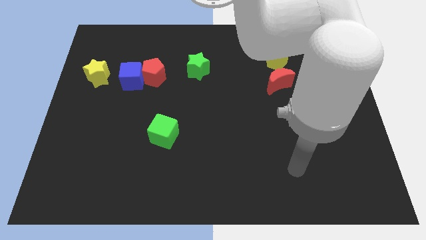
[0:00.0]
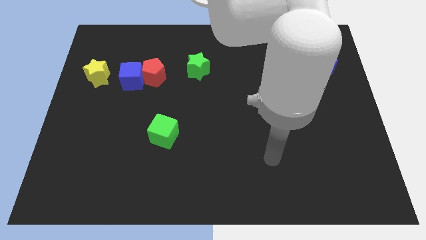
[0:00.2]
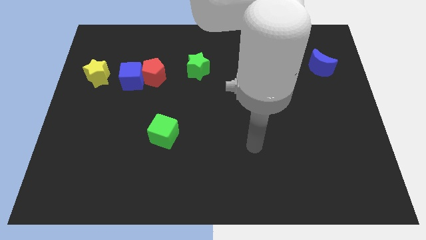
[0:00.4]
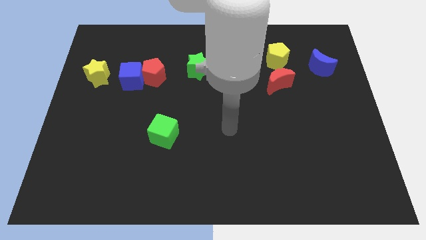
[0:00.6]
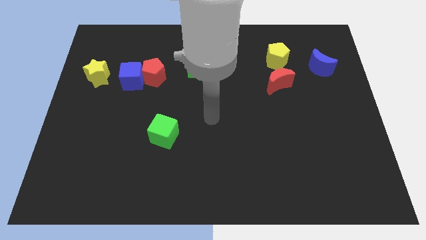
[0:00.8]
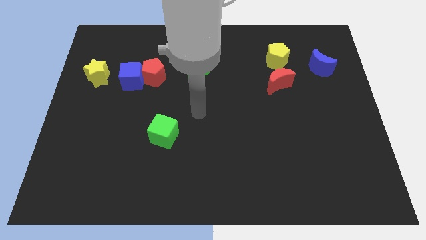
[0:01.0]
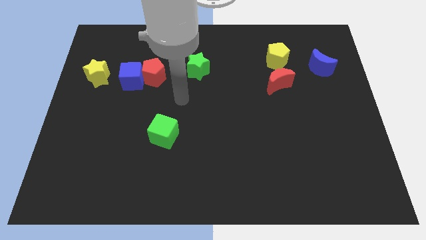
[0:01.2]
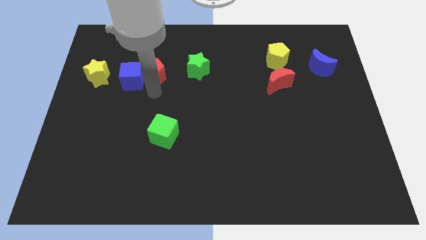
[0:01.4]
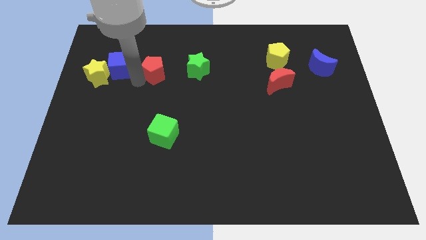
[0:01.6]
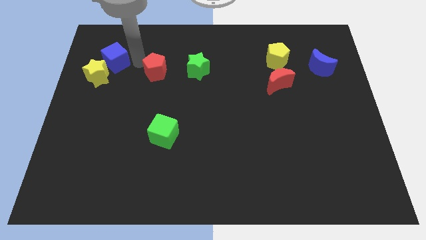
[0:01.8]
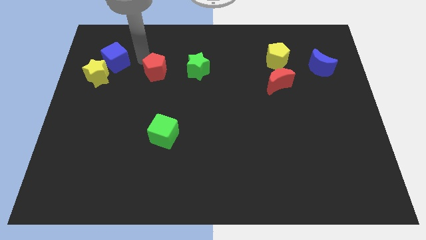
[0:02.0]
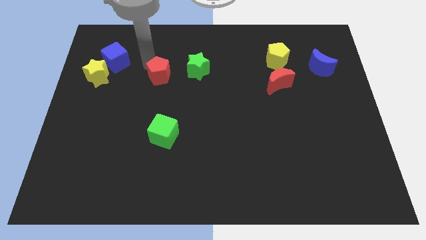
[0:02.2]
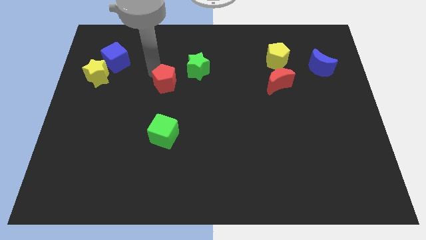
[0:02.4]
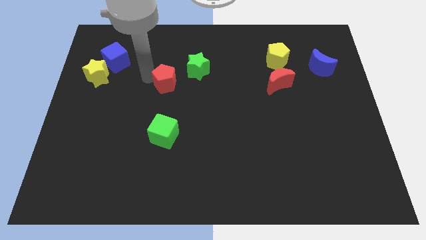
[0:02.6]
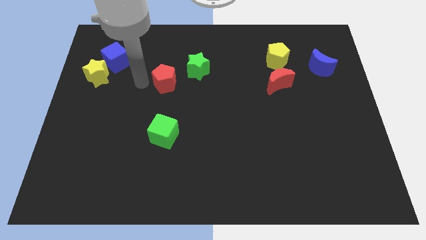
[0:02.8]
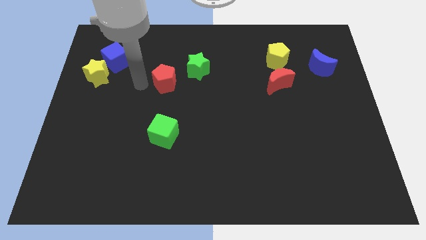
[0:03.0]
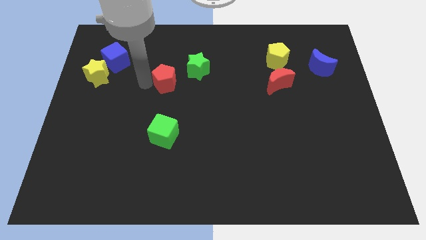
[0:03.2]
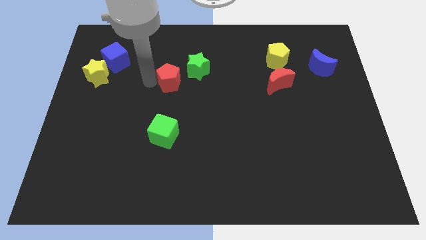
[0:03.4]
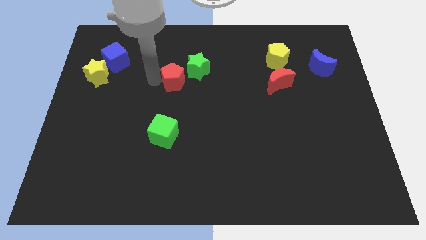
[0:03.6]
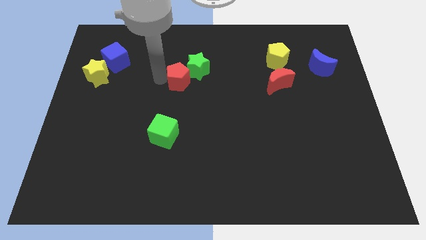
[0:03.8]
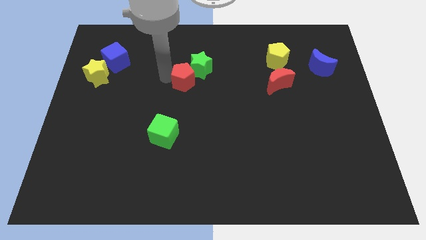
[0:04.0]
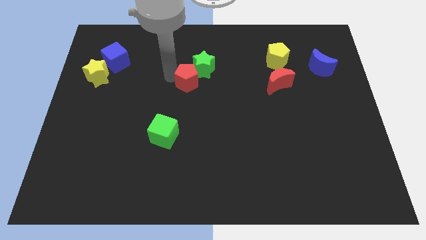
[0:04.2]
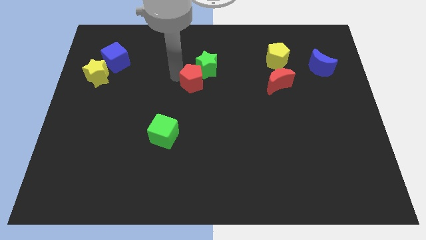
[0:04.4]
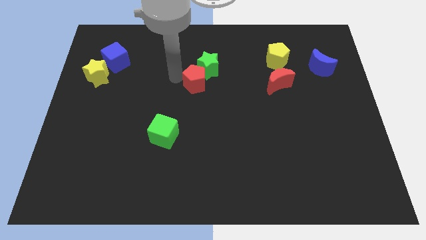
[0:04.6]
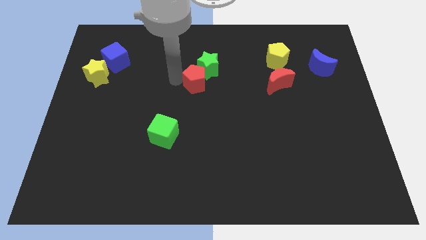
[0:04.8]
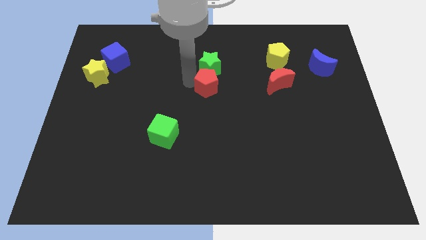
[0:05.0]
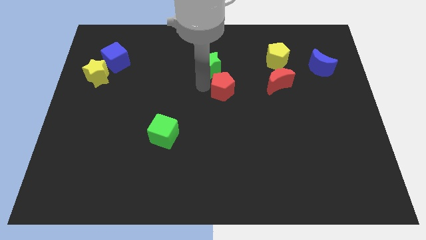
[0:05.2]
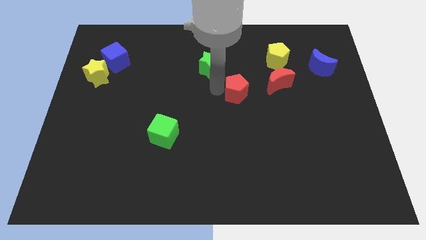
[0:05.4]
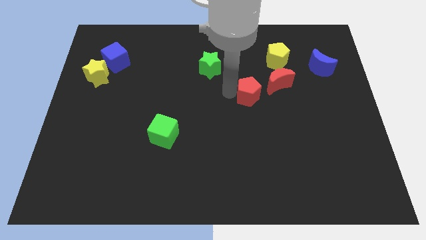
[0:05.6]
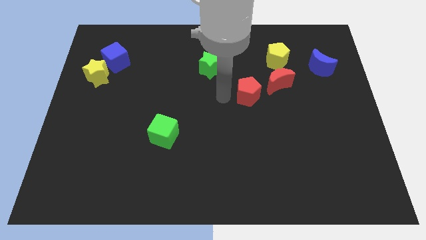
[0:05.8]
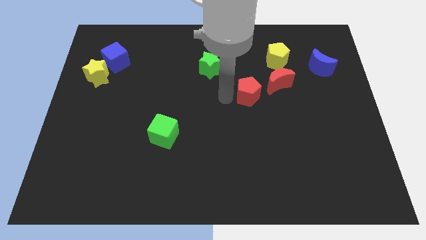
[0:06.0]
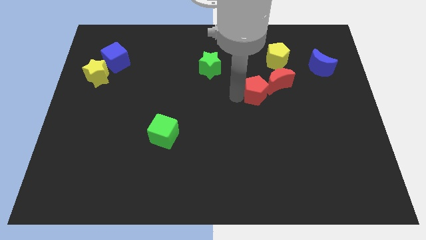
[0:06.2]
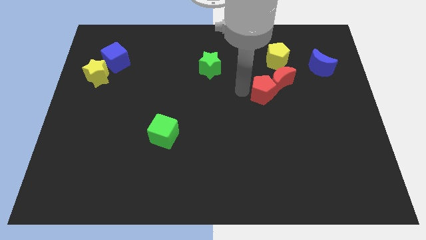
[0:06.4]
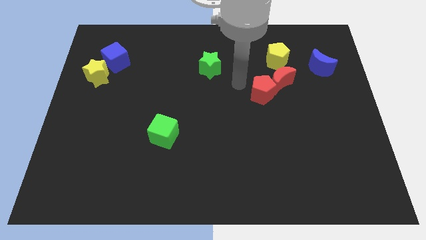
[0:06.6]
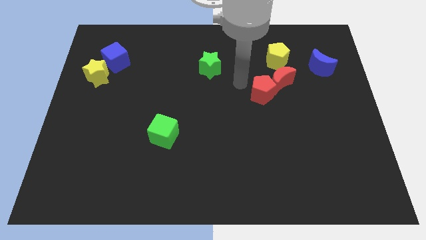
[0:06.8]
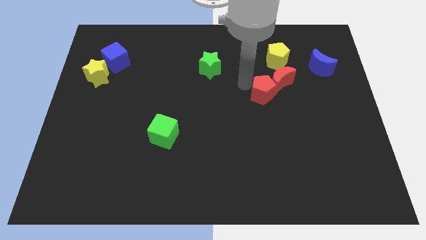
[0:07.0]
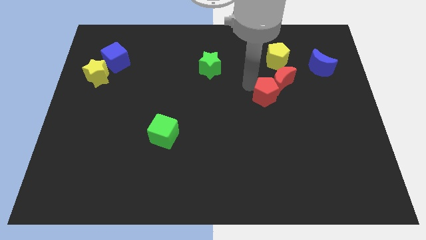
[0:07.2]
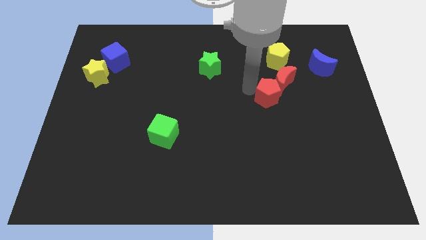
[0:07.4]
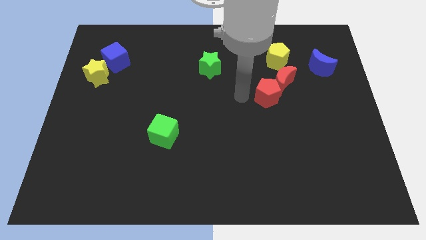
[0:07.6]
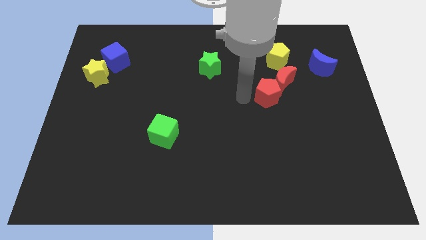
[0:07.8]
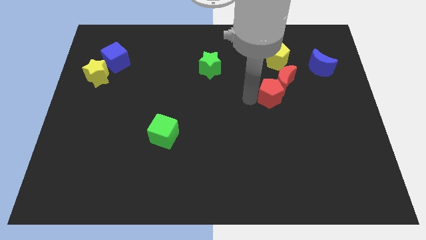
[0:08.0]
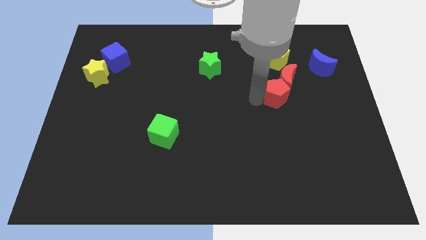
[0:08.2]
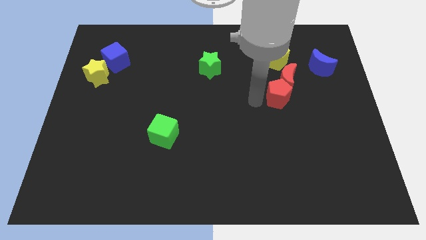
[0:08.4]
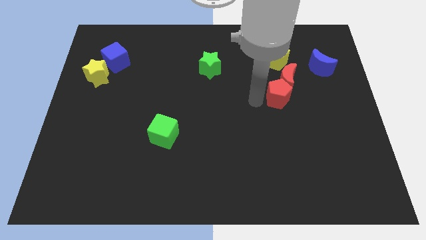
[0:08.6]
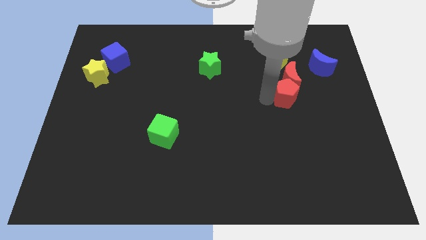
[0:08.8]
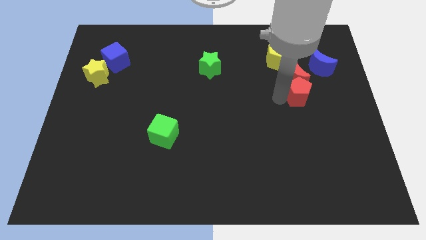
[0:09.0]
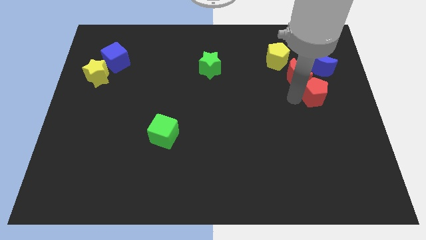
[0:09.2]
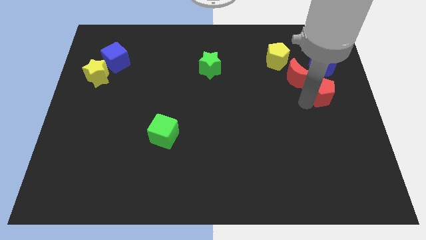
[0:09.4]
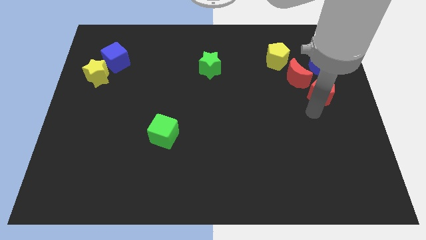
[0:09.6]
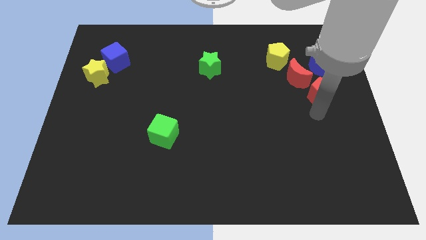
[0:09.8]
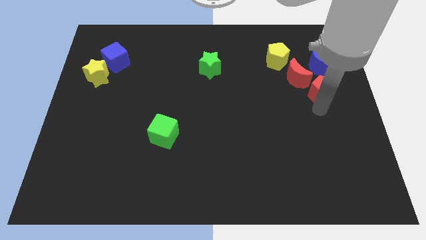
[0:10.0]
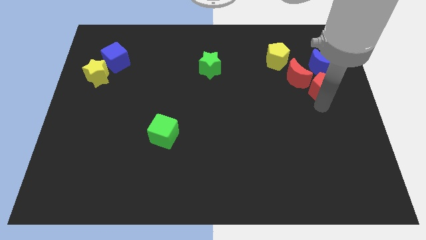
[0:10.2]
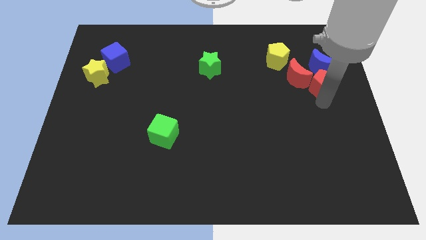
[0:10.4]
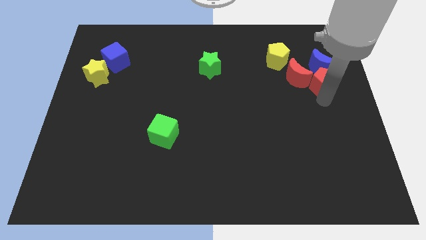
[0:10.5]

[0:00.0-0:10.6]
slide the red pentagon towards the blue moon

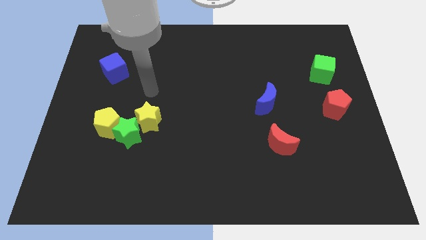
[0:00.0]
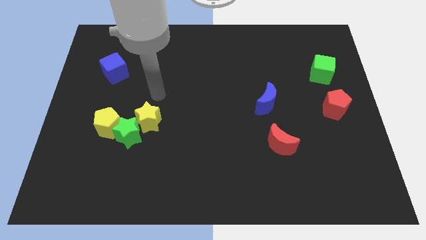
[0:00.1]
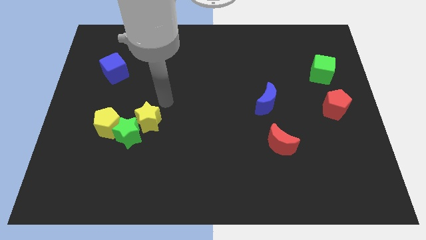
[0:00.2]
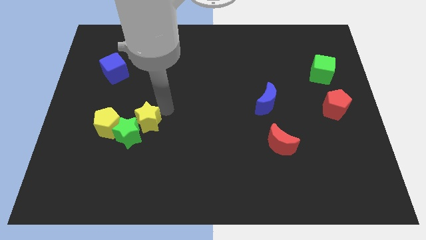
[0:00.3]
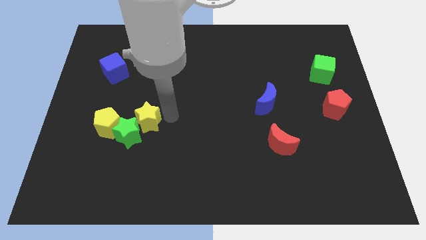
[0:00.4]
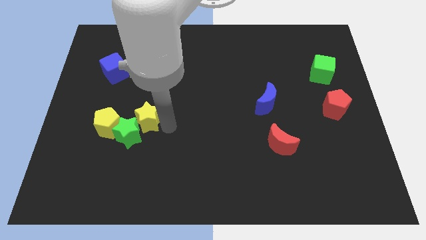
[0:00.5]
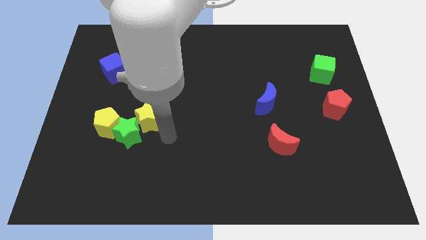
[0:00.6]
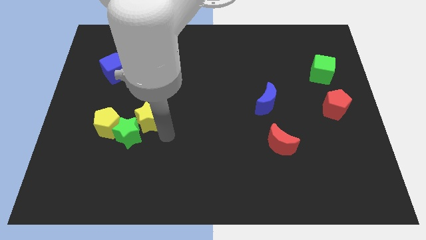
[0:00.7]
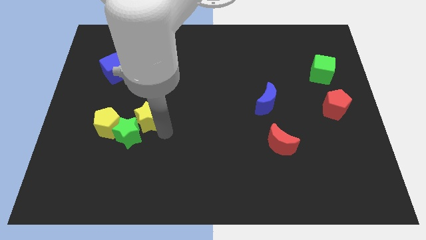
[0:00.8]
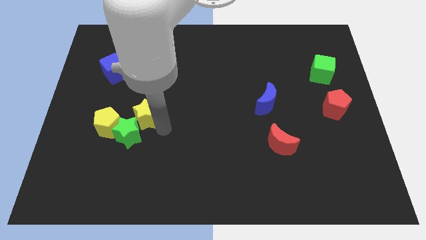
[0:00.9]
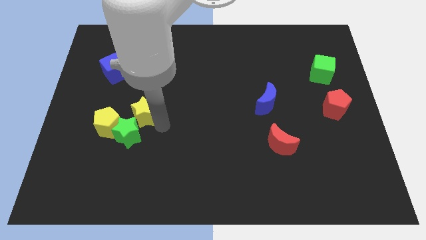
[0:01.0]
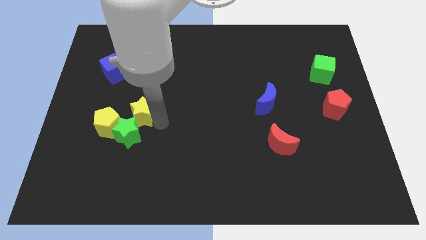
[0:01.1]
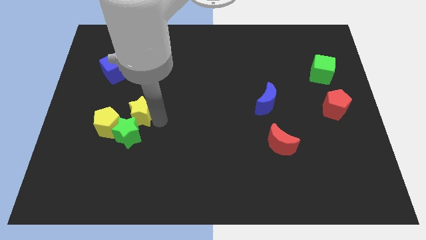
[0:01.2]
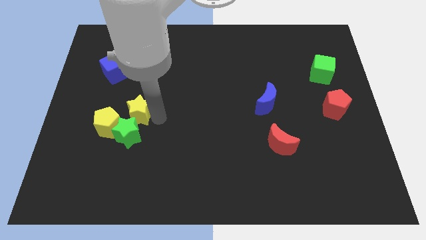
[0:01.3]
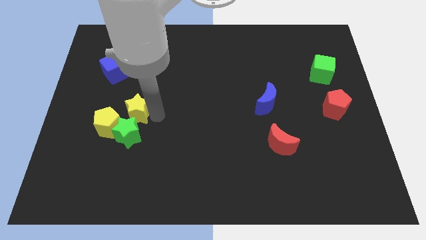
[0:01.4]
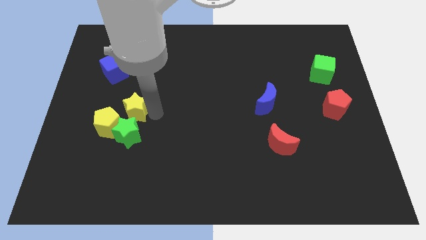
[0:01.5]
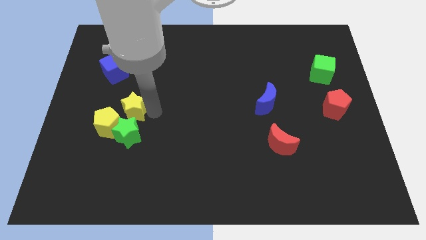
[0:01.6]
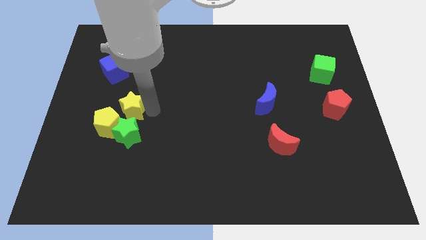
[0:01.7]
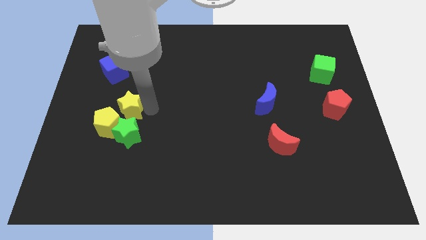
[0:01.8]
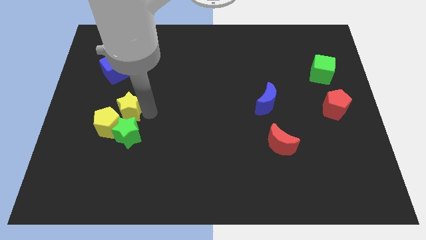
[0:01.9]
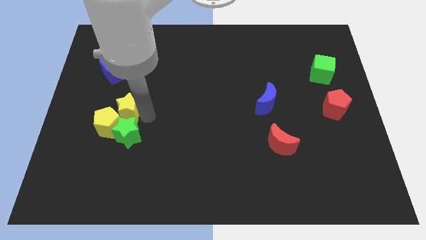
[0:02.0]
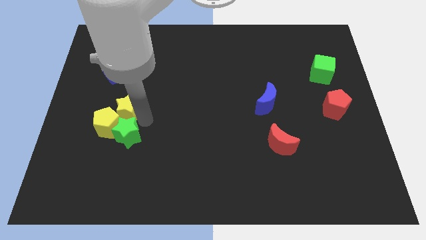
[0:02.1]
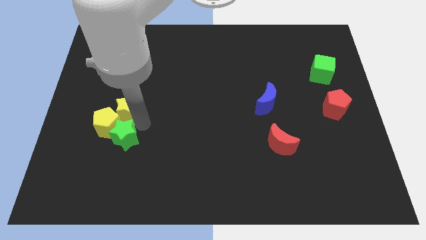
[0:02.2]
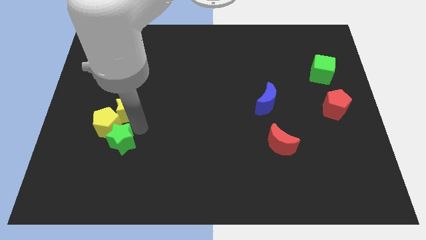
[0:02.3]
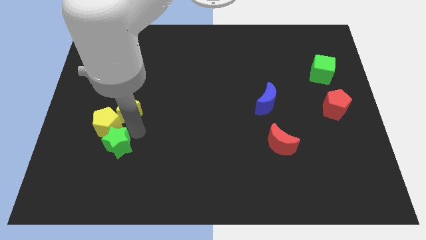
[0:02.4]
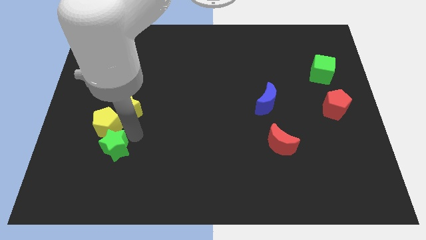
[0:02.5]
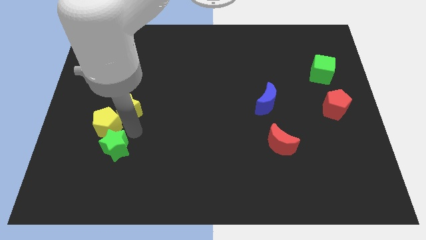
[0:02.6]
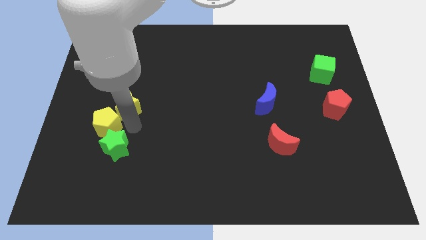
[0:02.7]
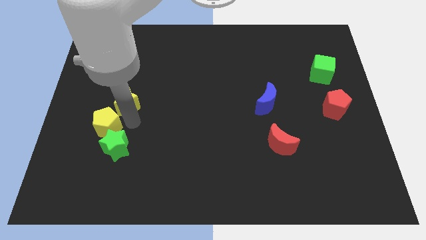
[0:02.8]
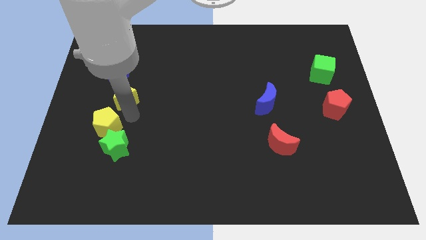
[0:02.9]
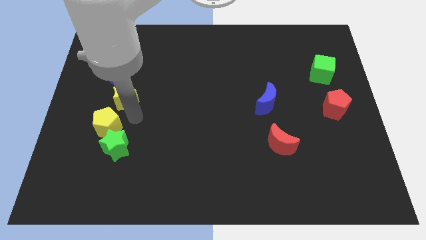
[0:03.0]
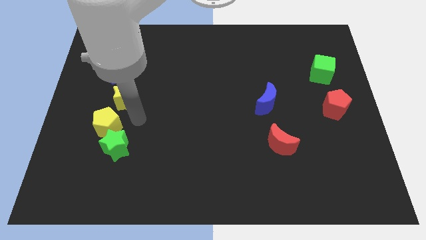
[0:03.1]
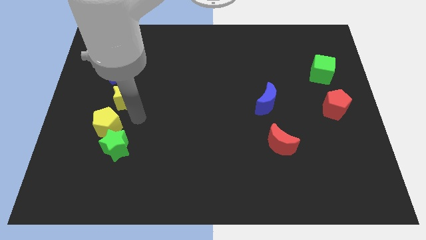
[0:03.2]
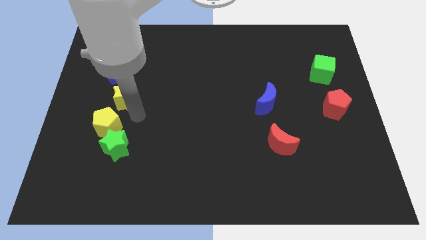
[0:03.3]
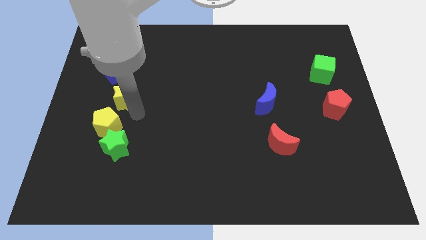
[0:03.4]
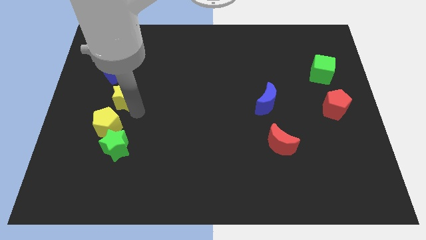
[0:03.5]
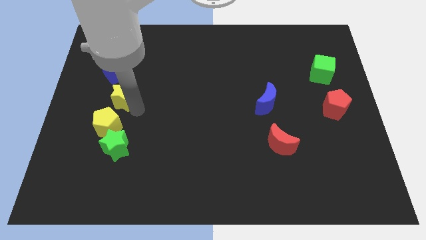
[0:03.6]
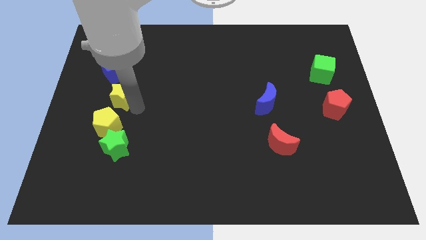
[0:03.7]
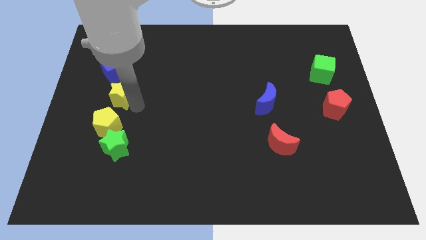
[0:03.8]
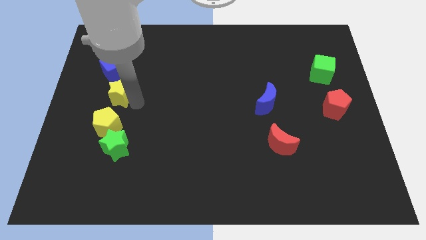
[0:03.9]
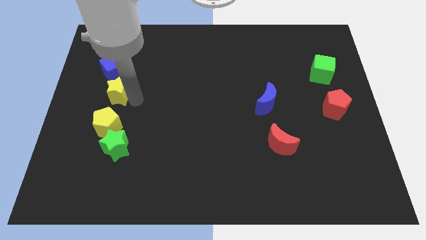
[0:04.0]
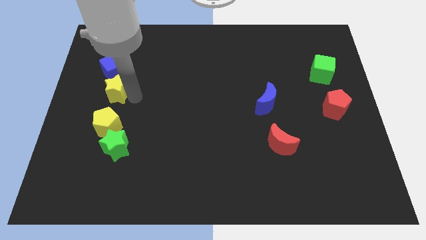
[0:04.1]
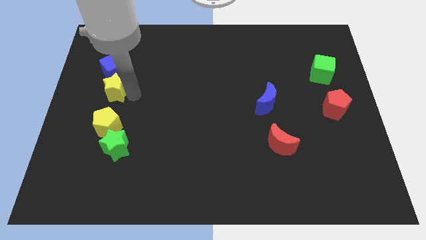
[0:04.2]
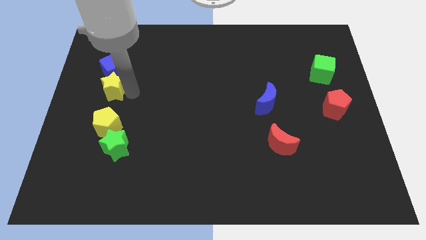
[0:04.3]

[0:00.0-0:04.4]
move the yellow star towards the blue cube
